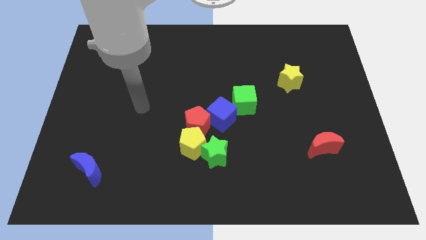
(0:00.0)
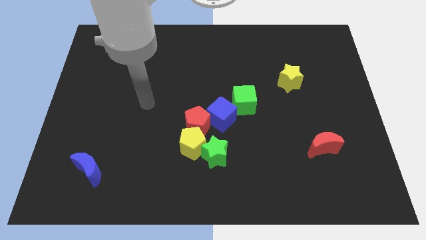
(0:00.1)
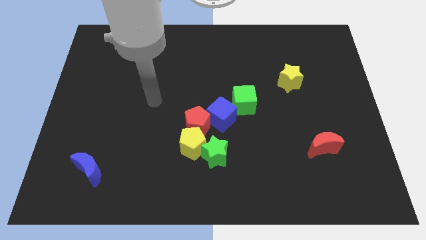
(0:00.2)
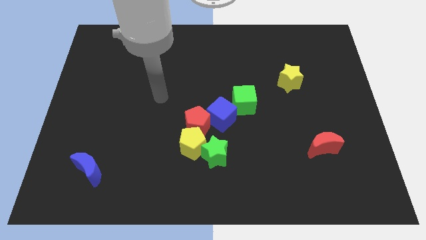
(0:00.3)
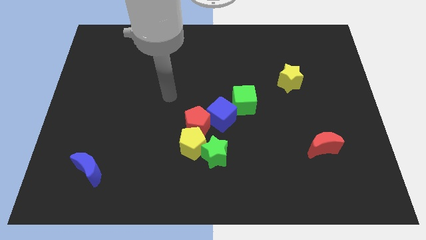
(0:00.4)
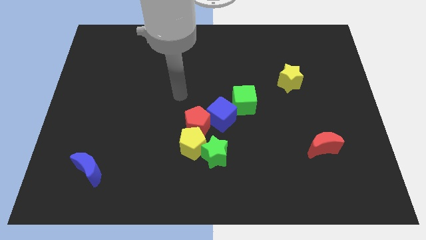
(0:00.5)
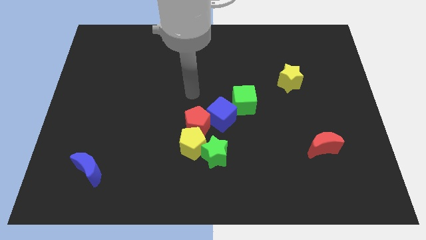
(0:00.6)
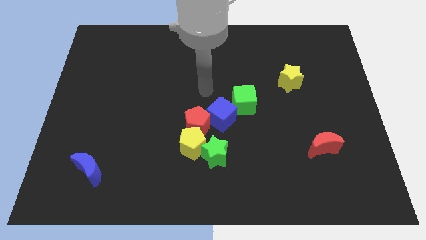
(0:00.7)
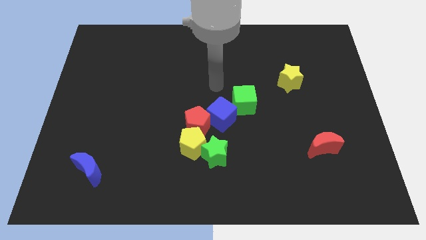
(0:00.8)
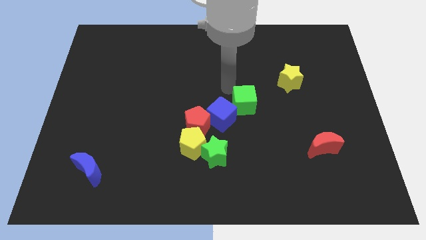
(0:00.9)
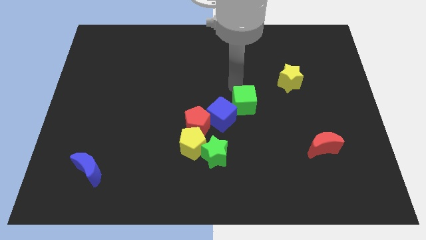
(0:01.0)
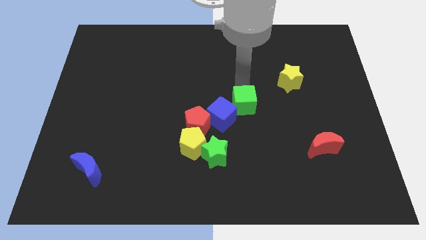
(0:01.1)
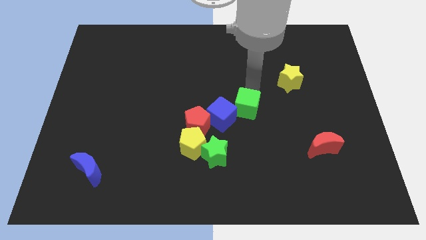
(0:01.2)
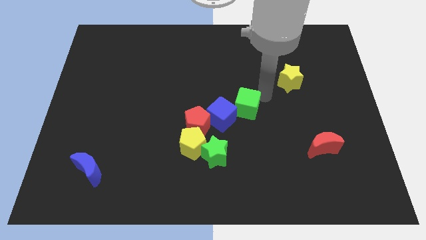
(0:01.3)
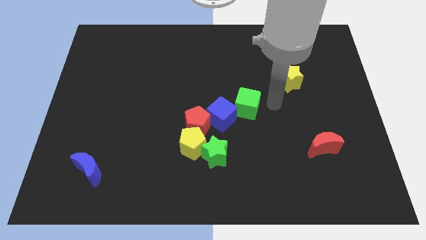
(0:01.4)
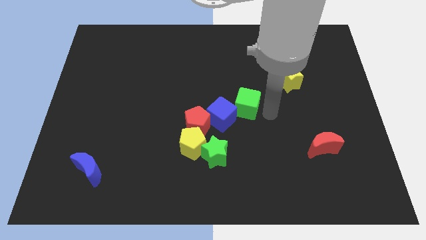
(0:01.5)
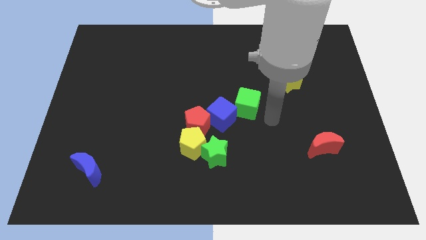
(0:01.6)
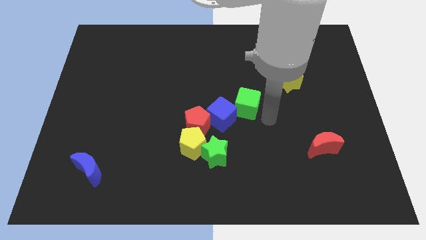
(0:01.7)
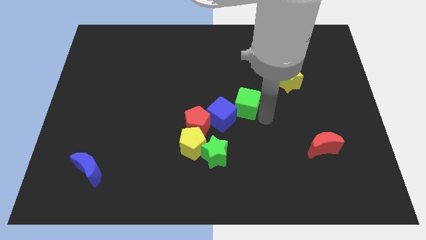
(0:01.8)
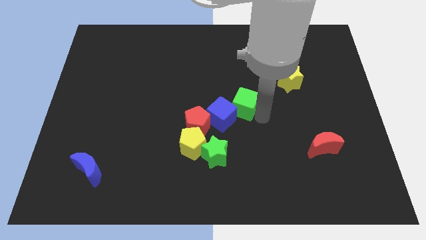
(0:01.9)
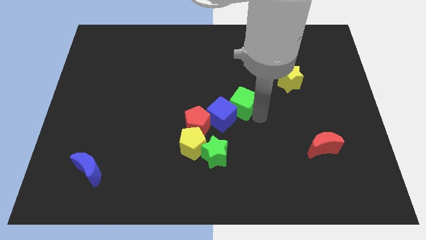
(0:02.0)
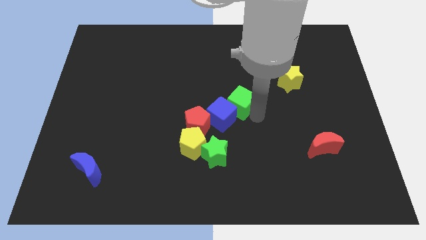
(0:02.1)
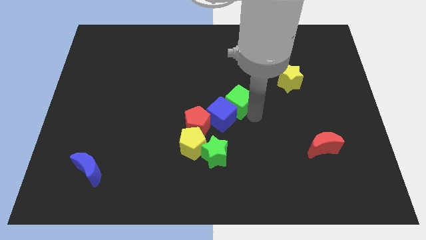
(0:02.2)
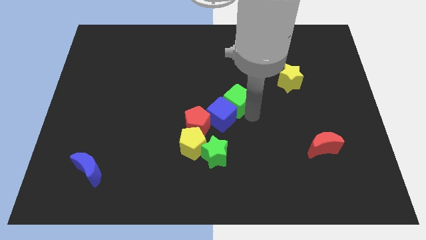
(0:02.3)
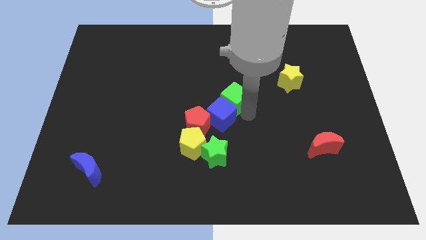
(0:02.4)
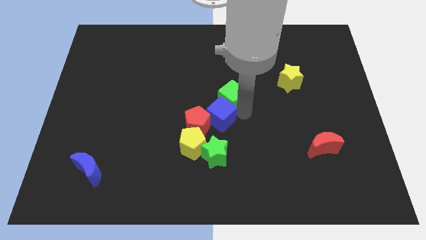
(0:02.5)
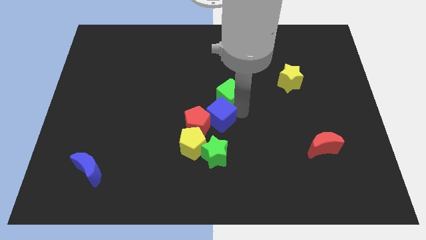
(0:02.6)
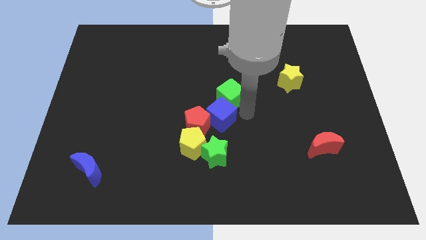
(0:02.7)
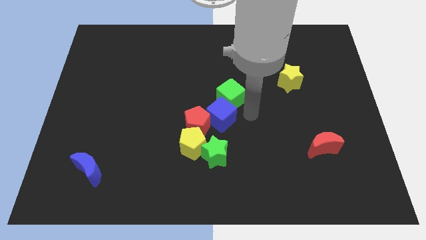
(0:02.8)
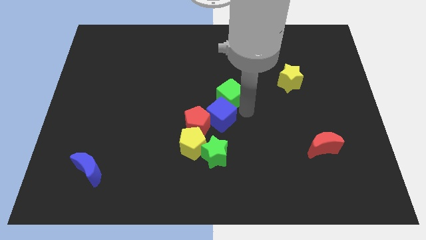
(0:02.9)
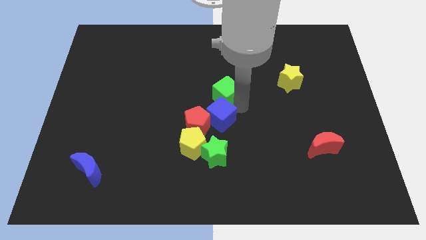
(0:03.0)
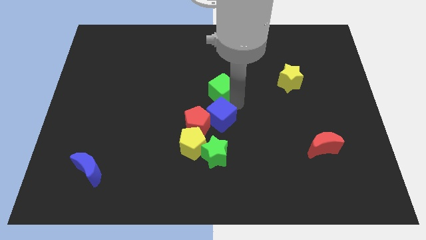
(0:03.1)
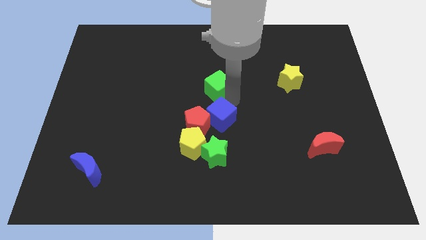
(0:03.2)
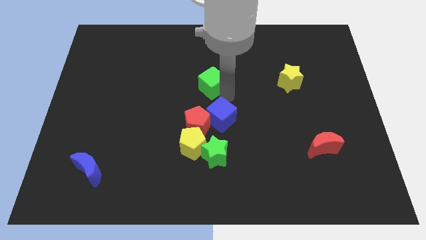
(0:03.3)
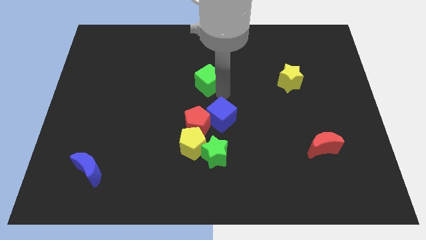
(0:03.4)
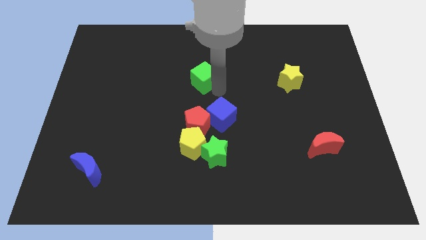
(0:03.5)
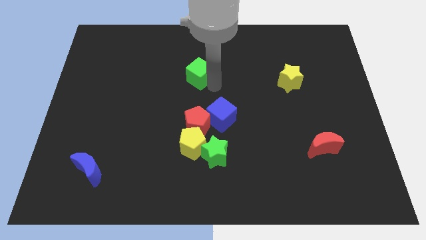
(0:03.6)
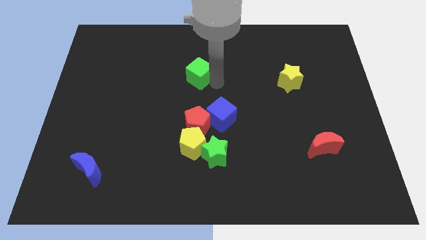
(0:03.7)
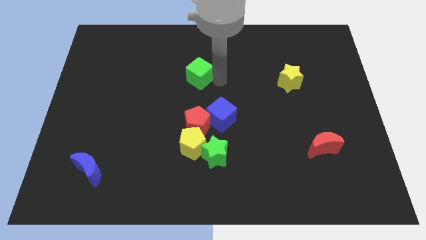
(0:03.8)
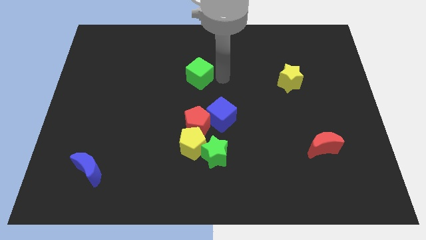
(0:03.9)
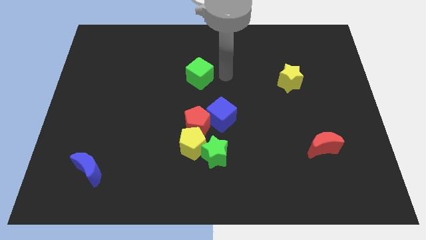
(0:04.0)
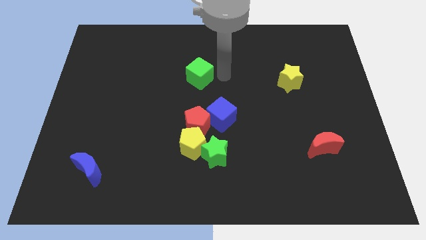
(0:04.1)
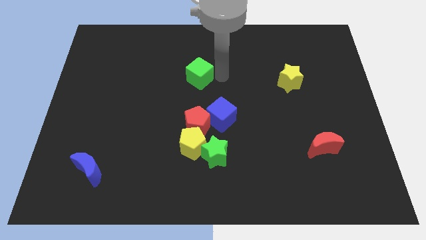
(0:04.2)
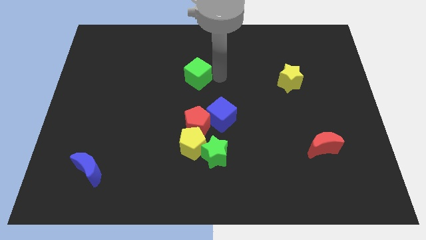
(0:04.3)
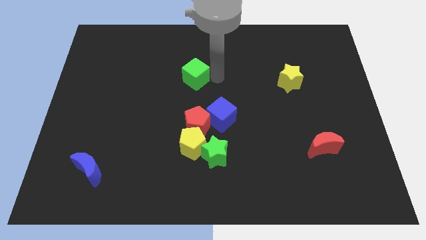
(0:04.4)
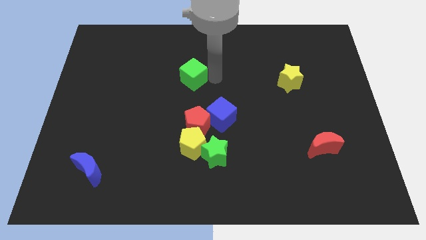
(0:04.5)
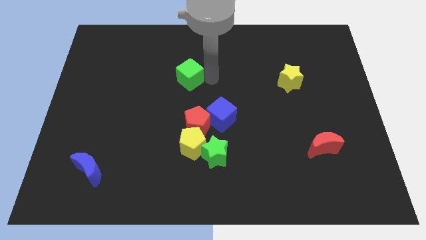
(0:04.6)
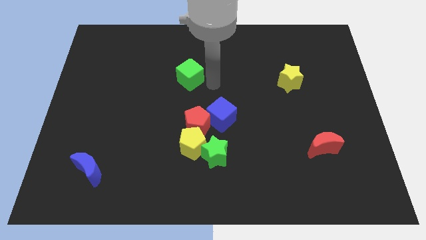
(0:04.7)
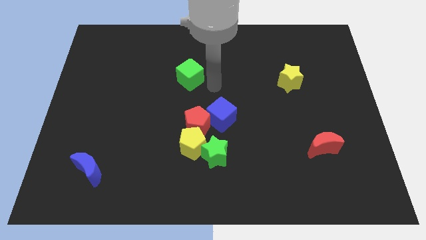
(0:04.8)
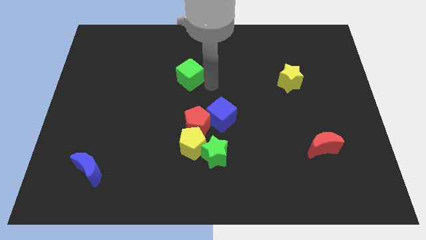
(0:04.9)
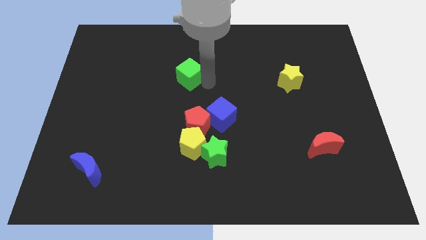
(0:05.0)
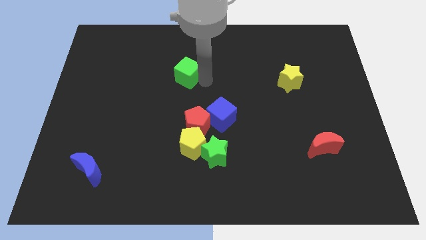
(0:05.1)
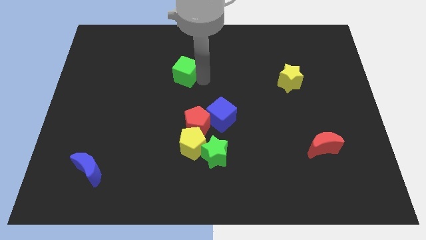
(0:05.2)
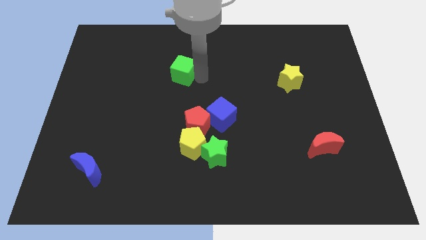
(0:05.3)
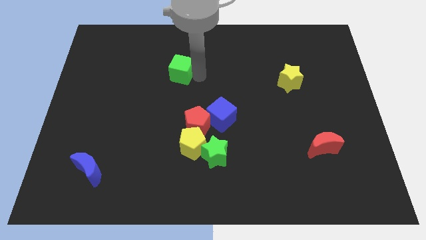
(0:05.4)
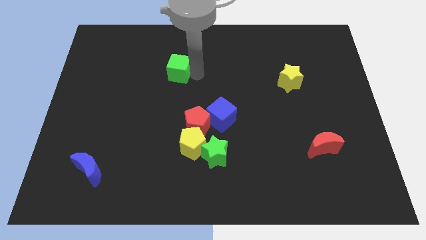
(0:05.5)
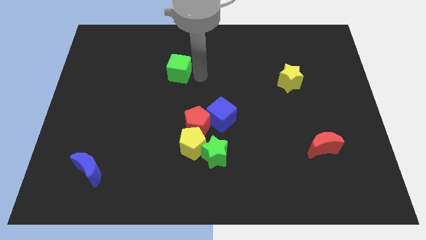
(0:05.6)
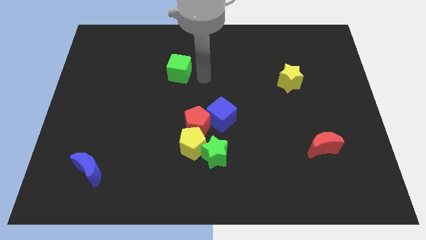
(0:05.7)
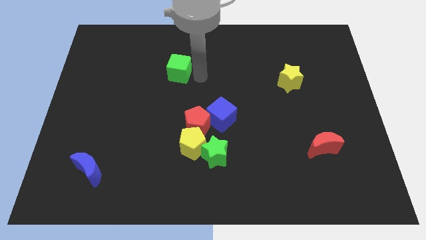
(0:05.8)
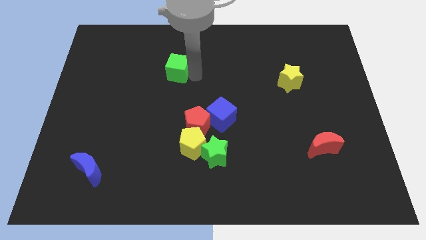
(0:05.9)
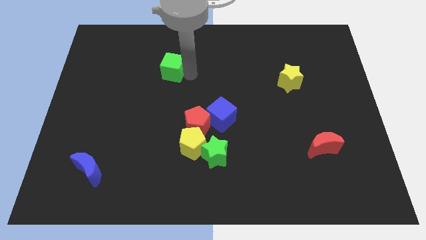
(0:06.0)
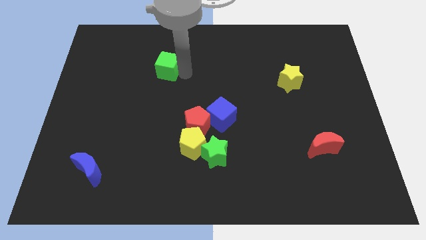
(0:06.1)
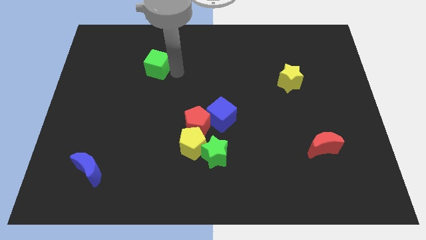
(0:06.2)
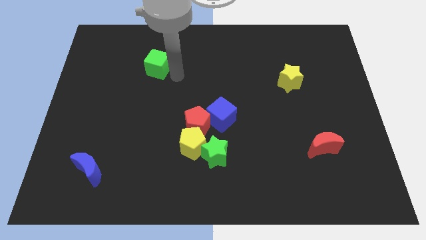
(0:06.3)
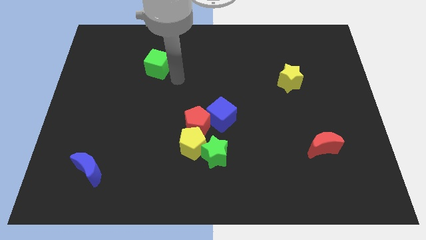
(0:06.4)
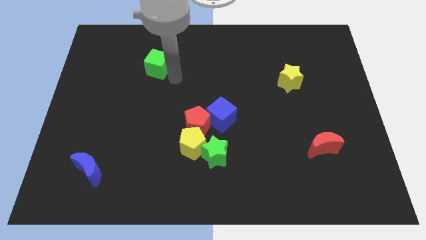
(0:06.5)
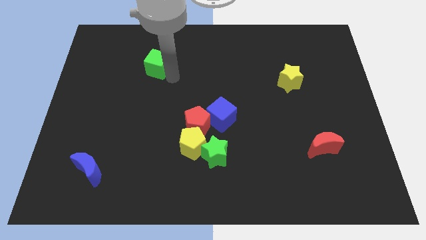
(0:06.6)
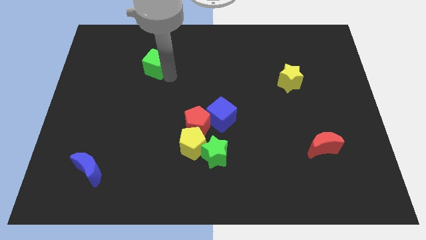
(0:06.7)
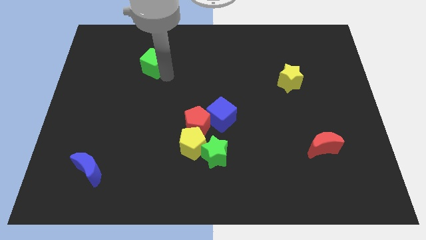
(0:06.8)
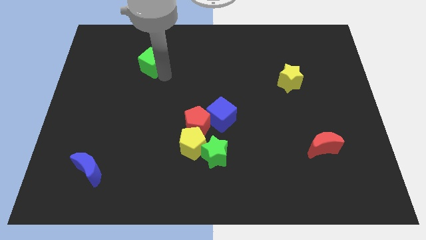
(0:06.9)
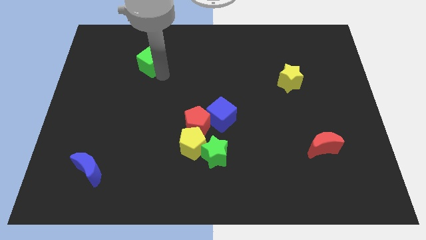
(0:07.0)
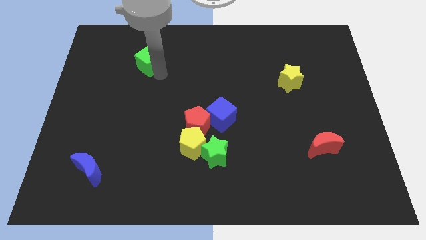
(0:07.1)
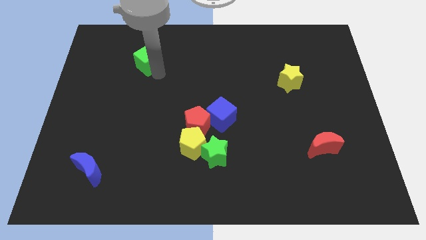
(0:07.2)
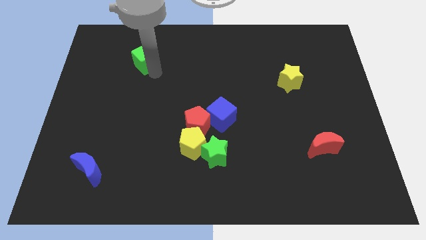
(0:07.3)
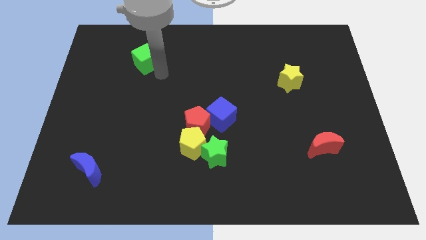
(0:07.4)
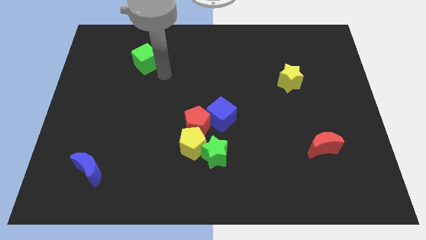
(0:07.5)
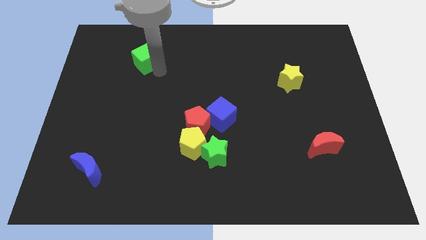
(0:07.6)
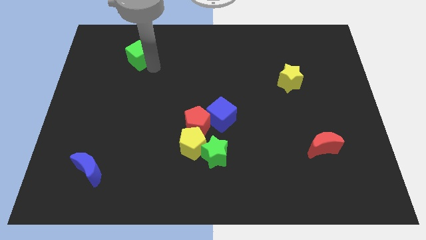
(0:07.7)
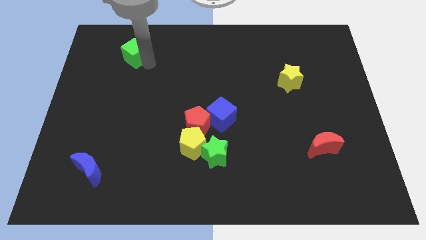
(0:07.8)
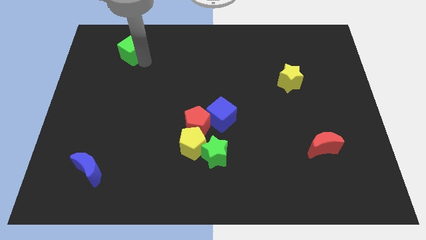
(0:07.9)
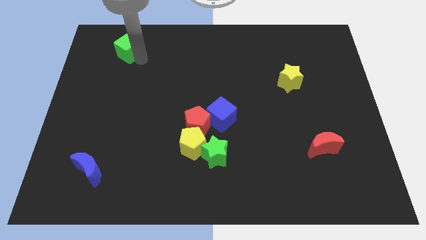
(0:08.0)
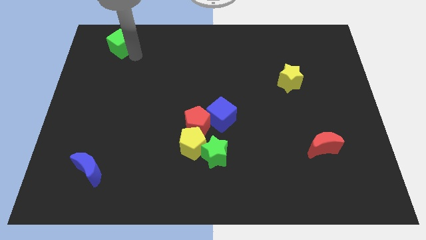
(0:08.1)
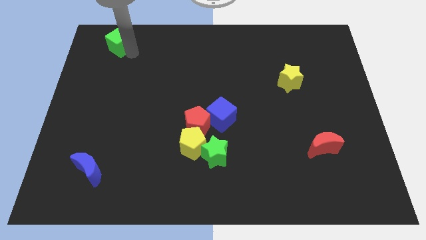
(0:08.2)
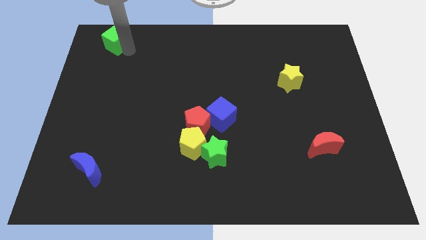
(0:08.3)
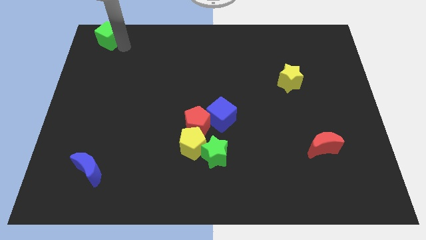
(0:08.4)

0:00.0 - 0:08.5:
move the green cube to the upper left corner
